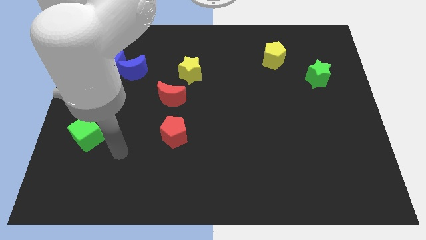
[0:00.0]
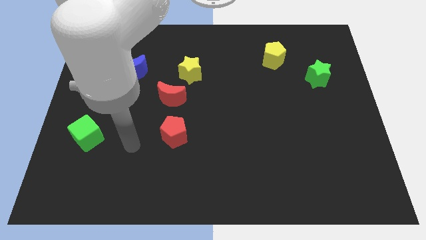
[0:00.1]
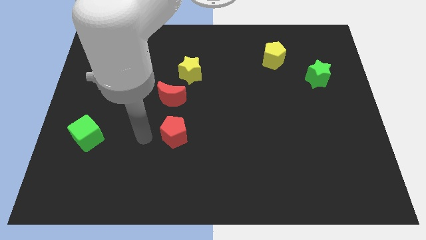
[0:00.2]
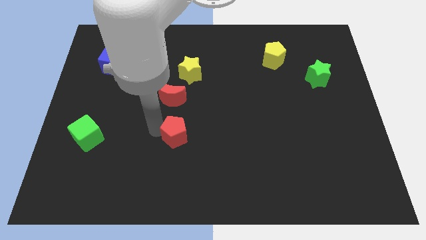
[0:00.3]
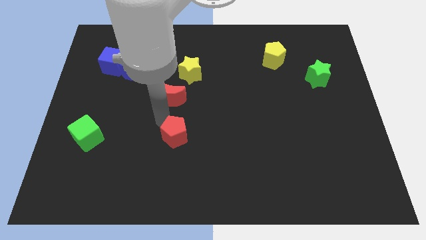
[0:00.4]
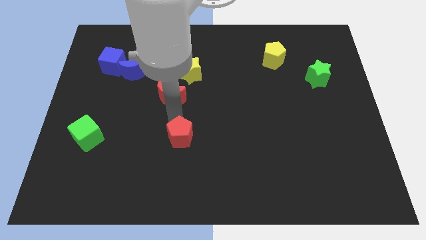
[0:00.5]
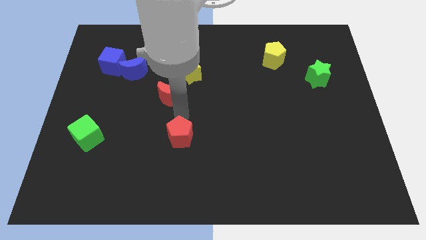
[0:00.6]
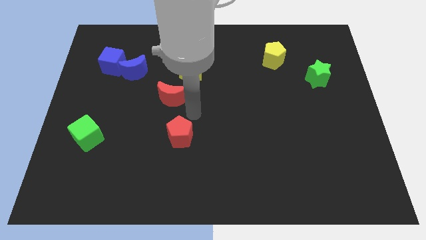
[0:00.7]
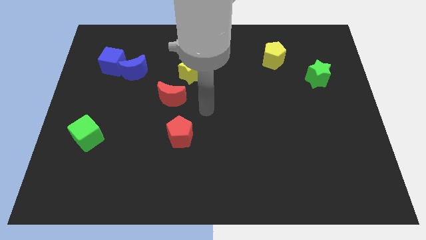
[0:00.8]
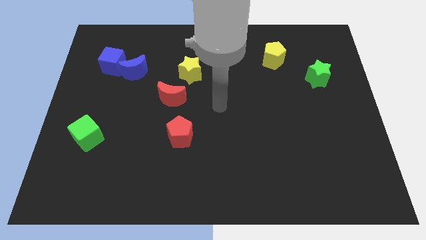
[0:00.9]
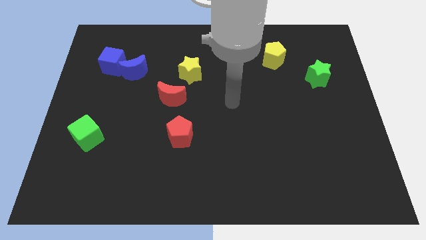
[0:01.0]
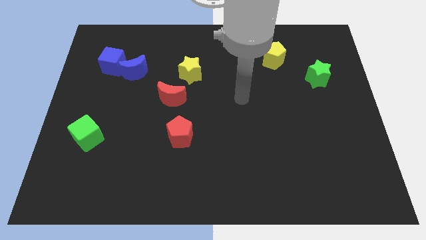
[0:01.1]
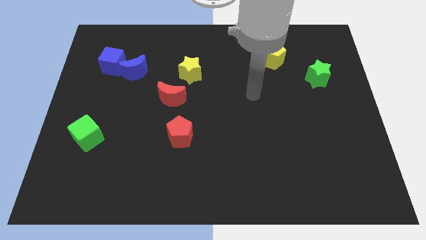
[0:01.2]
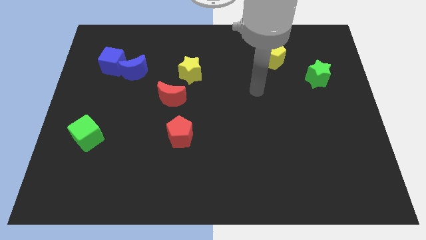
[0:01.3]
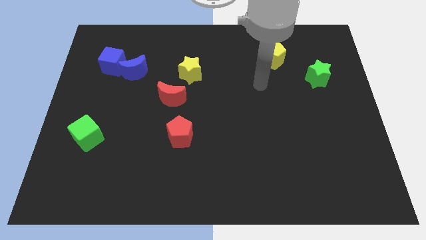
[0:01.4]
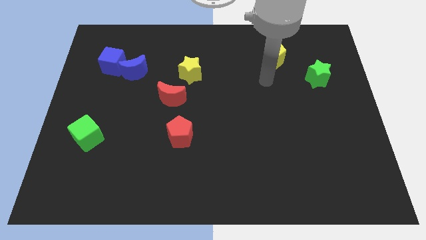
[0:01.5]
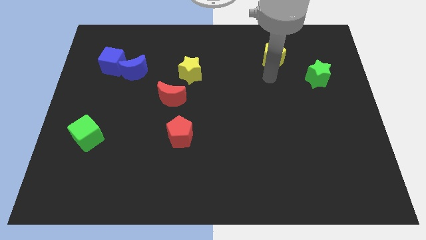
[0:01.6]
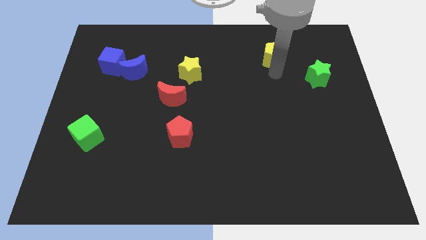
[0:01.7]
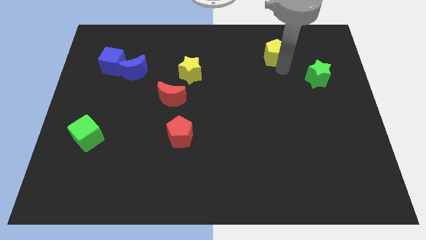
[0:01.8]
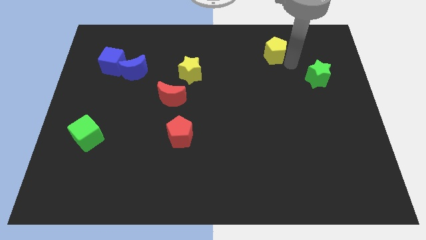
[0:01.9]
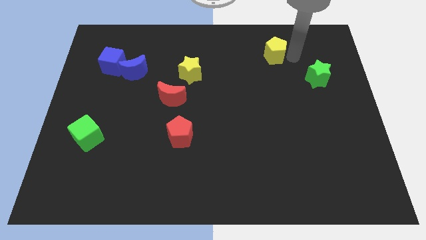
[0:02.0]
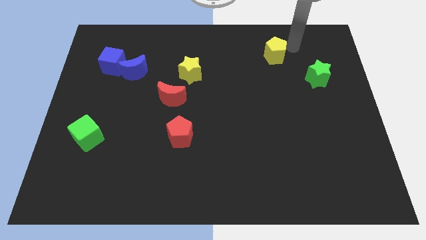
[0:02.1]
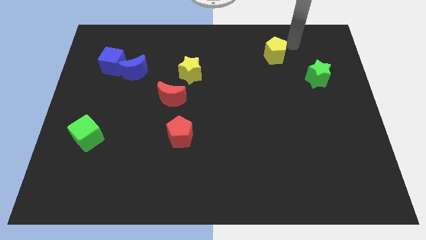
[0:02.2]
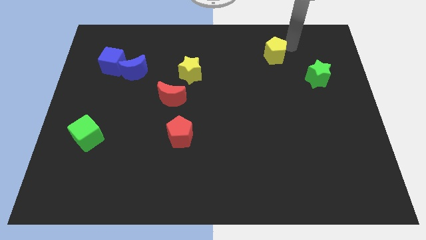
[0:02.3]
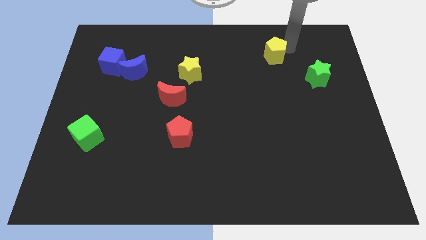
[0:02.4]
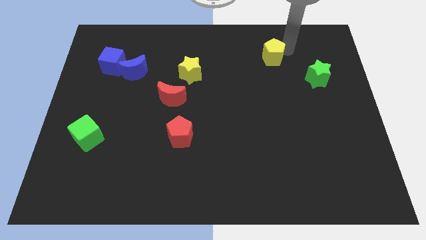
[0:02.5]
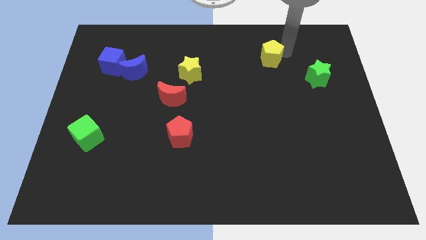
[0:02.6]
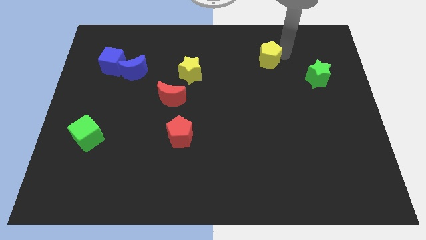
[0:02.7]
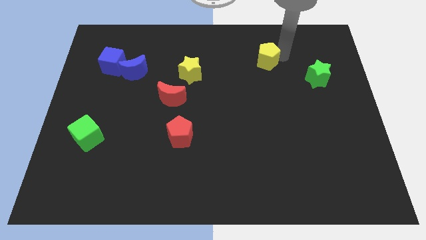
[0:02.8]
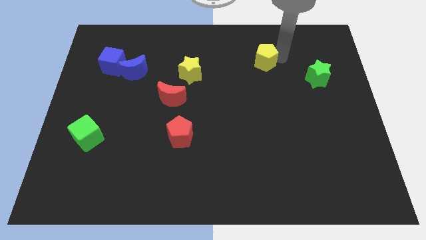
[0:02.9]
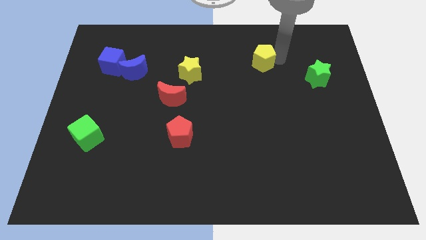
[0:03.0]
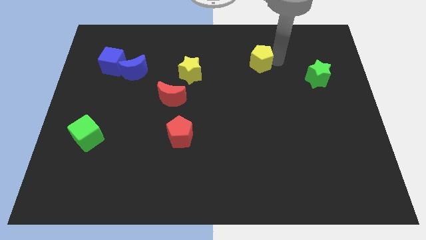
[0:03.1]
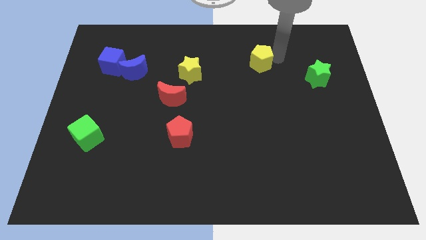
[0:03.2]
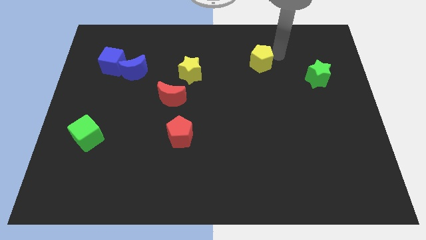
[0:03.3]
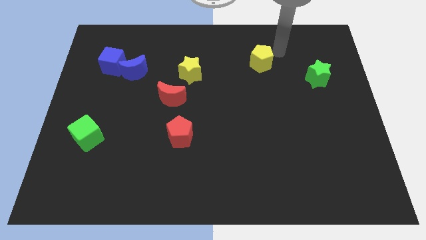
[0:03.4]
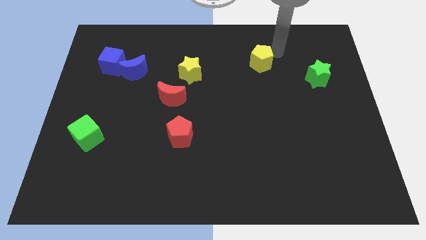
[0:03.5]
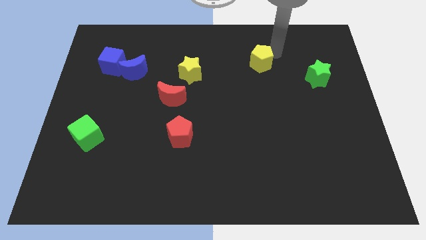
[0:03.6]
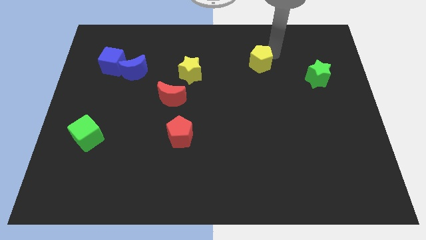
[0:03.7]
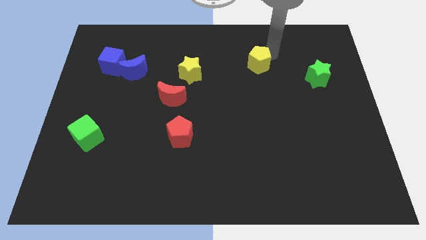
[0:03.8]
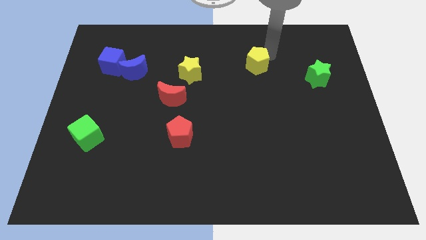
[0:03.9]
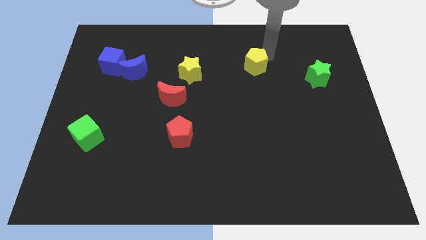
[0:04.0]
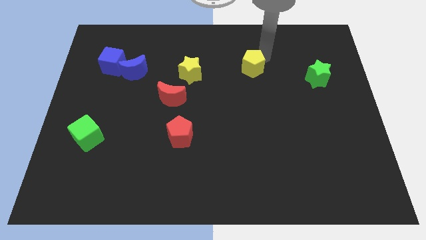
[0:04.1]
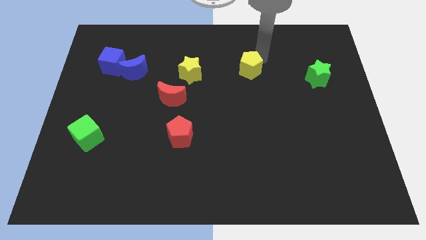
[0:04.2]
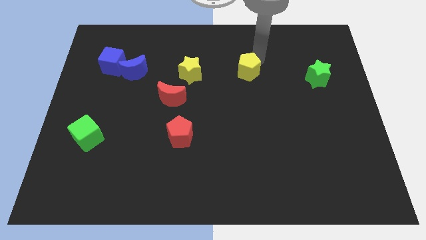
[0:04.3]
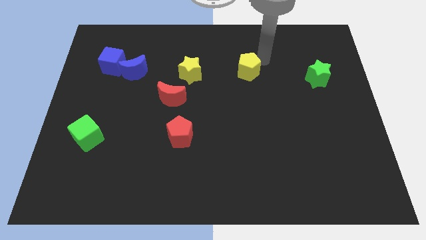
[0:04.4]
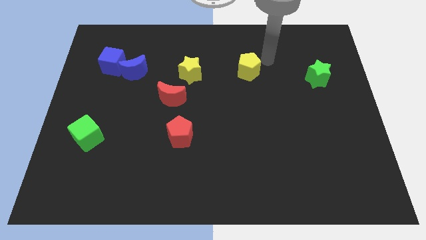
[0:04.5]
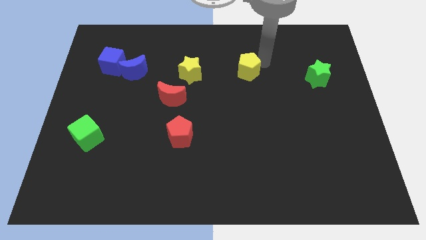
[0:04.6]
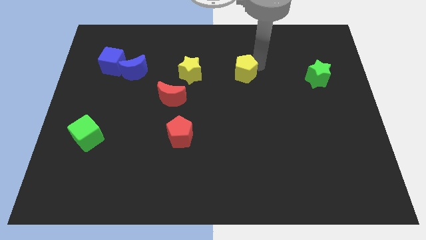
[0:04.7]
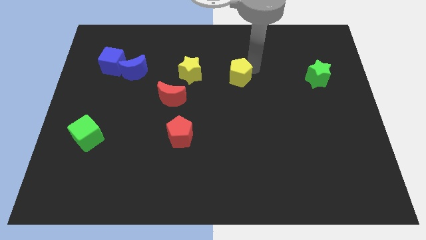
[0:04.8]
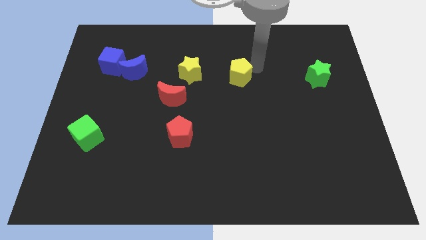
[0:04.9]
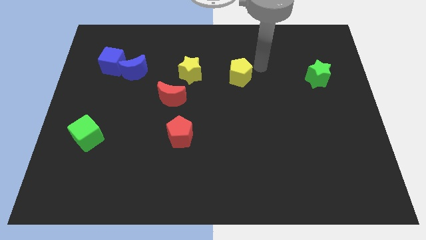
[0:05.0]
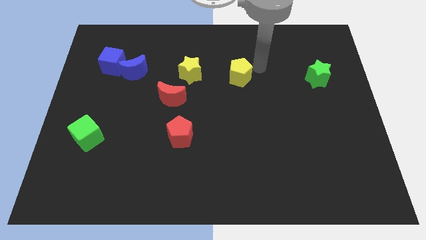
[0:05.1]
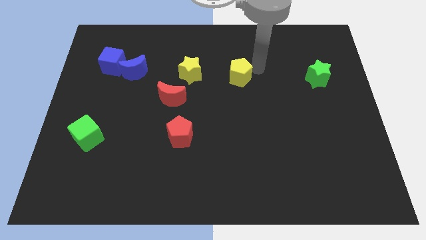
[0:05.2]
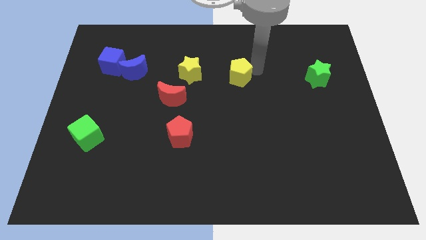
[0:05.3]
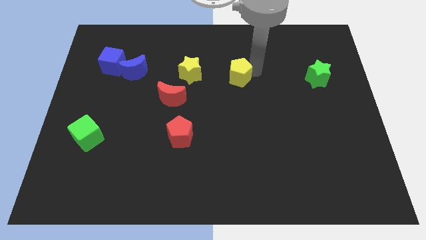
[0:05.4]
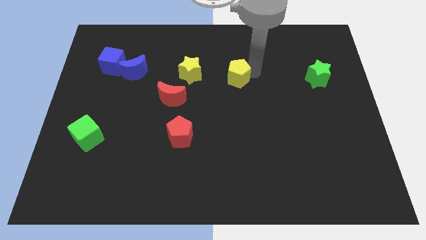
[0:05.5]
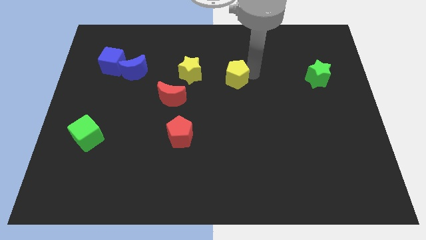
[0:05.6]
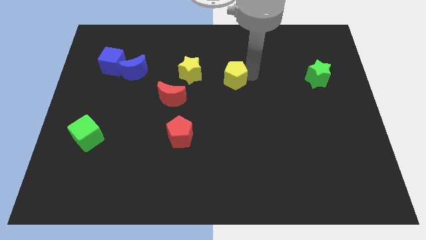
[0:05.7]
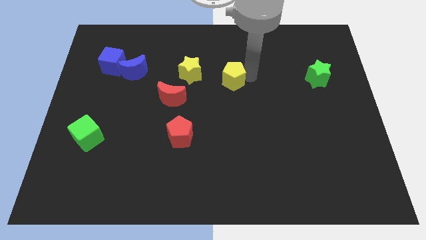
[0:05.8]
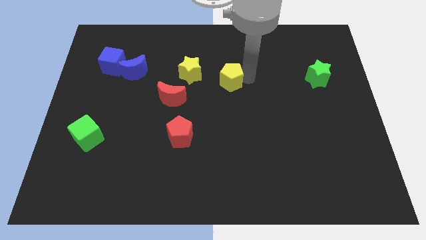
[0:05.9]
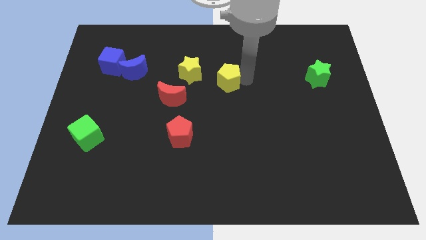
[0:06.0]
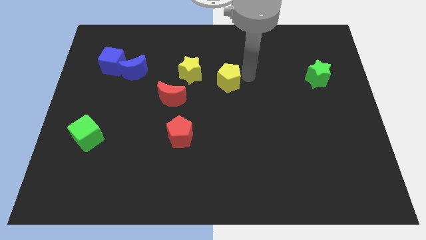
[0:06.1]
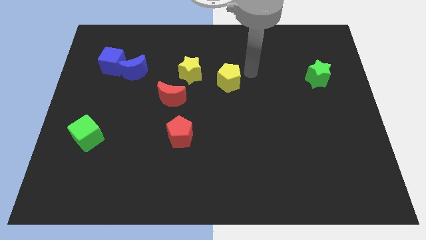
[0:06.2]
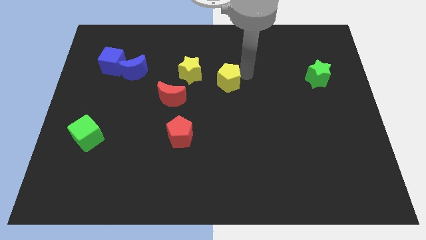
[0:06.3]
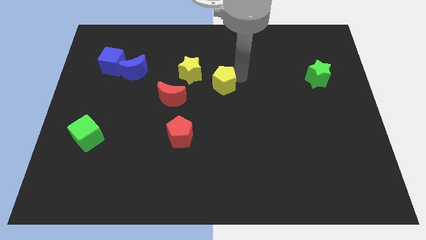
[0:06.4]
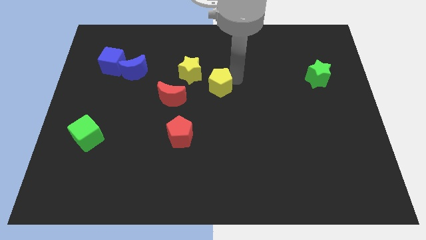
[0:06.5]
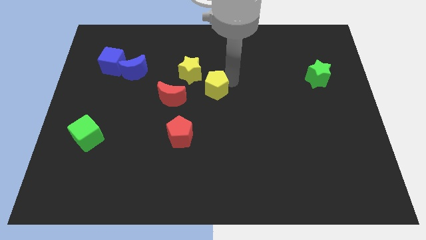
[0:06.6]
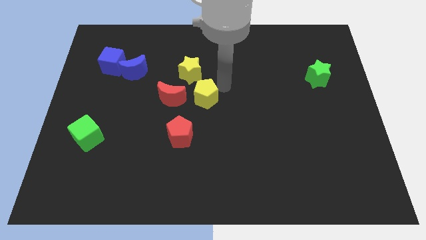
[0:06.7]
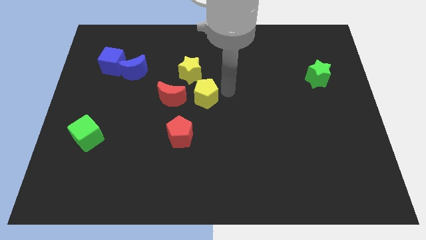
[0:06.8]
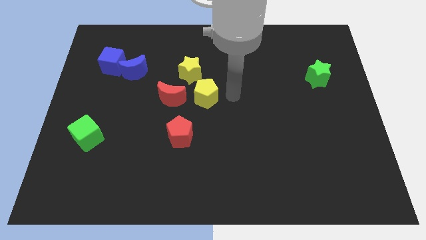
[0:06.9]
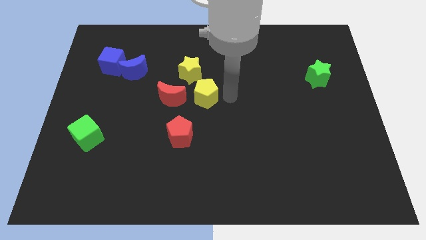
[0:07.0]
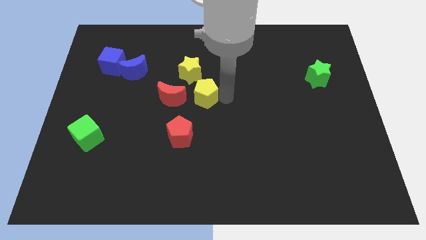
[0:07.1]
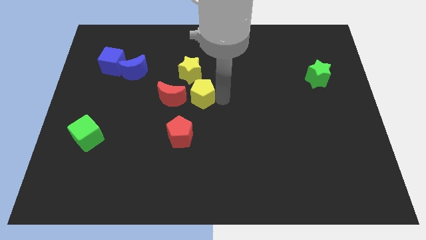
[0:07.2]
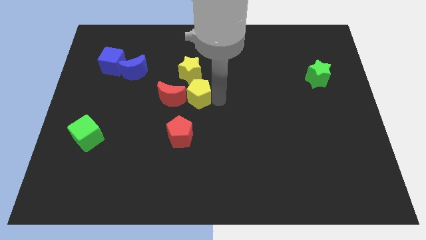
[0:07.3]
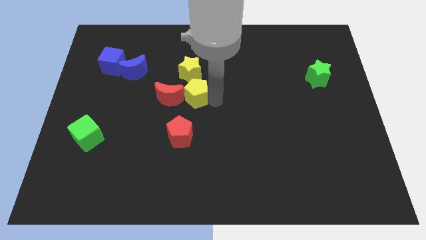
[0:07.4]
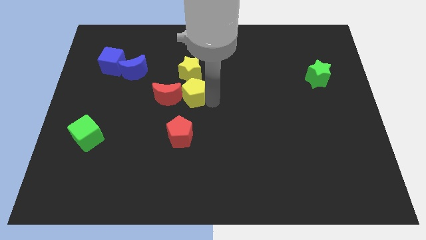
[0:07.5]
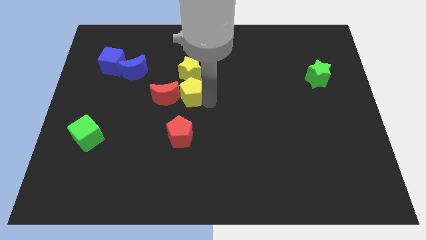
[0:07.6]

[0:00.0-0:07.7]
slide the yellow pentagon towards the red moon
